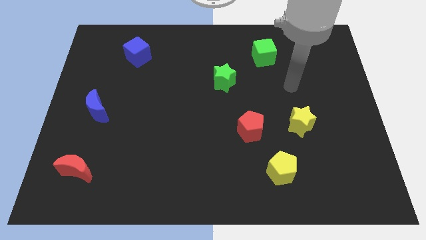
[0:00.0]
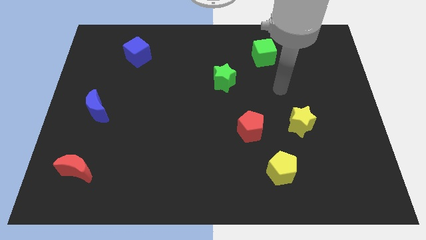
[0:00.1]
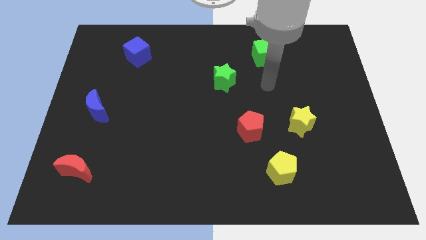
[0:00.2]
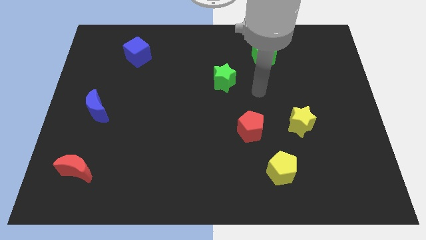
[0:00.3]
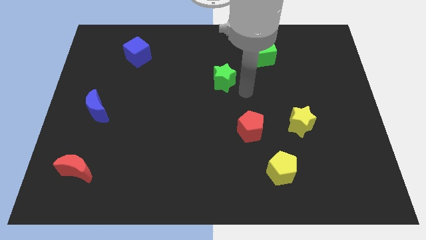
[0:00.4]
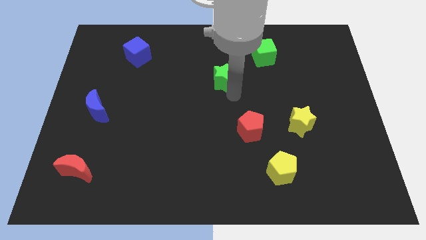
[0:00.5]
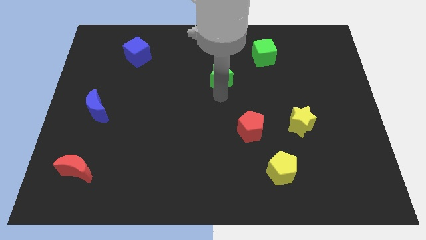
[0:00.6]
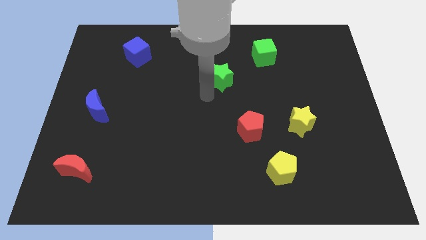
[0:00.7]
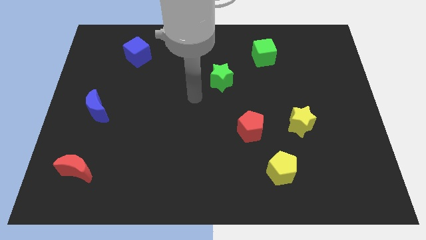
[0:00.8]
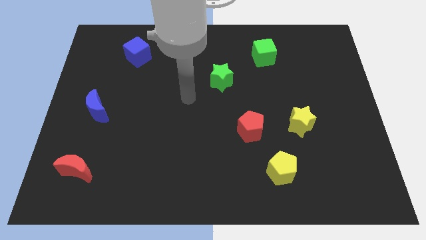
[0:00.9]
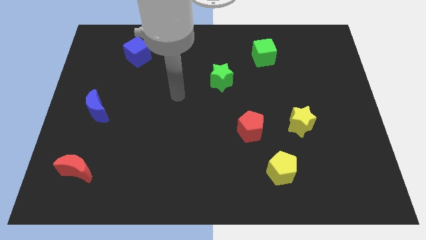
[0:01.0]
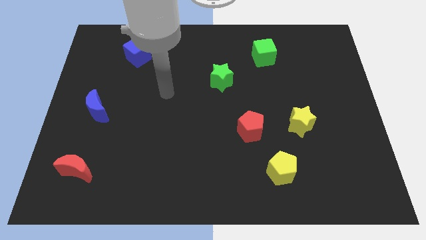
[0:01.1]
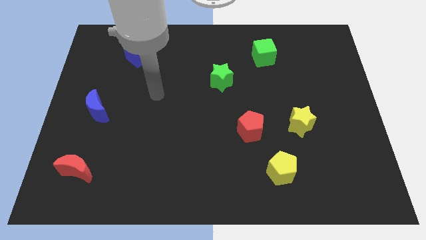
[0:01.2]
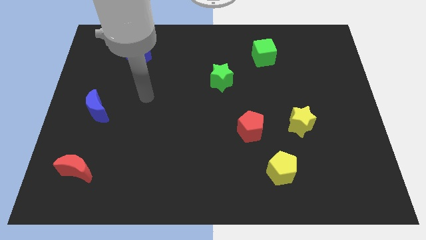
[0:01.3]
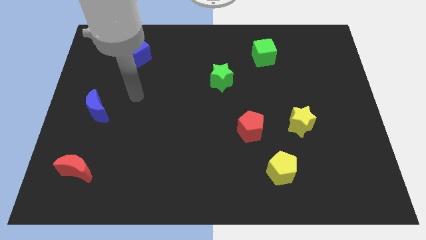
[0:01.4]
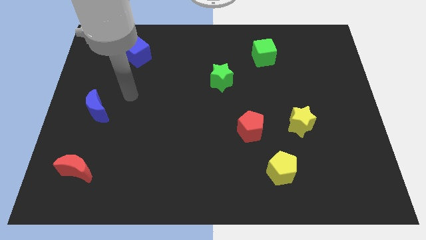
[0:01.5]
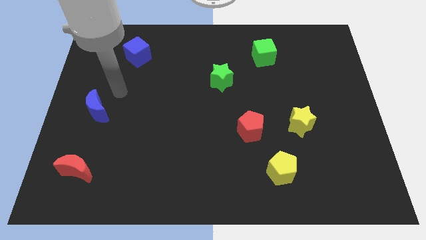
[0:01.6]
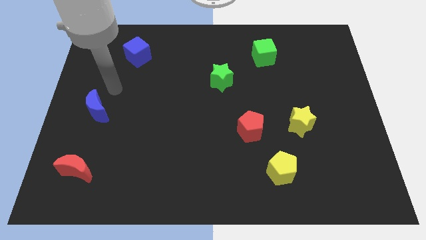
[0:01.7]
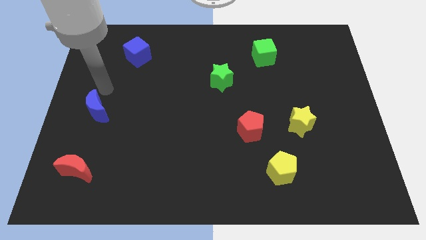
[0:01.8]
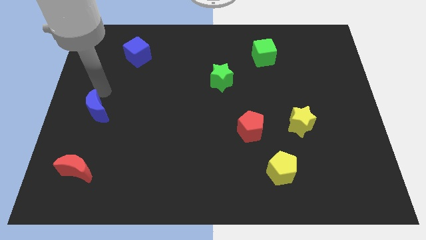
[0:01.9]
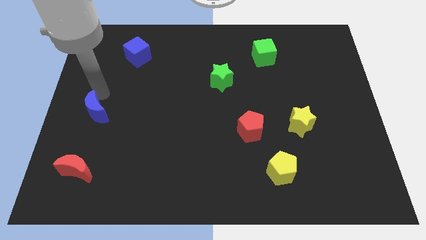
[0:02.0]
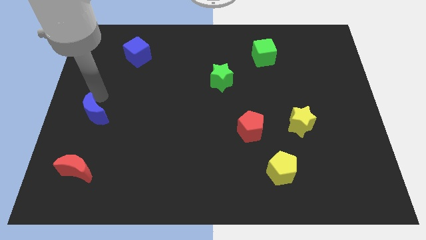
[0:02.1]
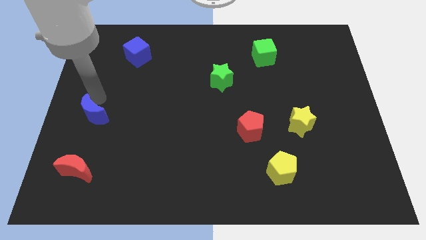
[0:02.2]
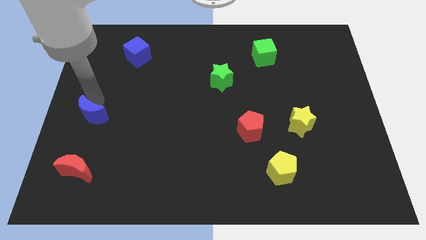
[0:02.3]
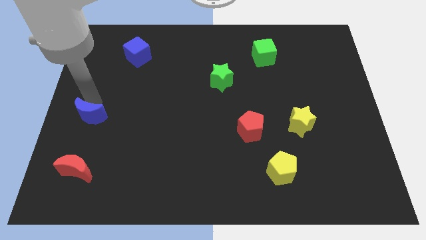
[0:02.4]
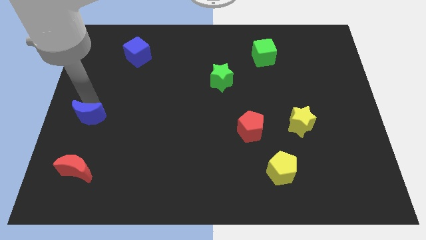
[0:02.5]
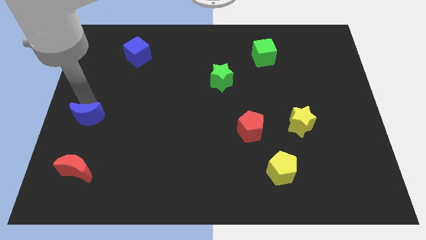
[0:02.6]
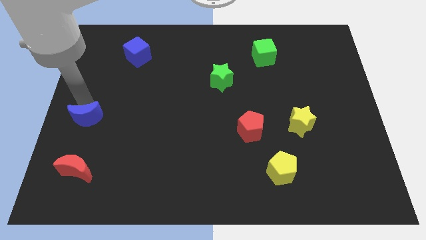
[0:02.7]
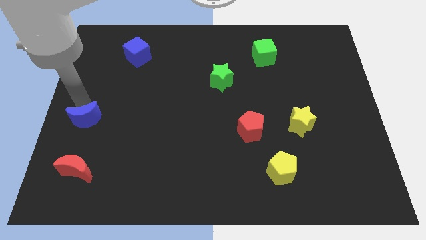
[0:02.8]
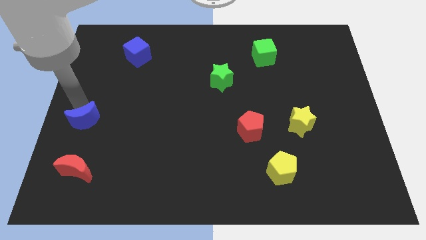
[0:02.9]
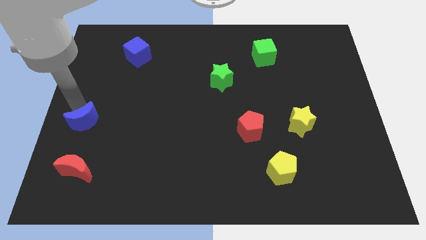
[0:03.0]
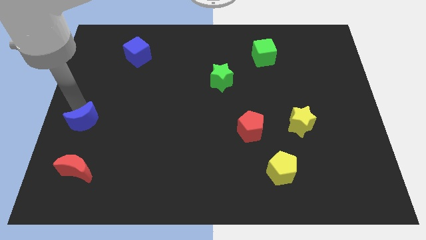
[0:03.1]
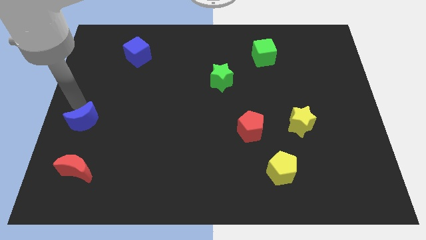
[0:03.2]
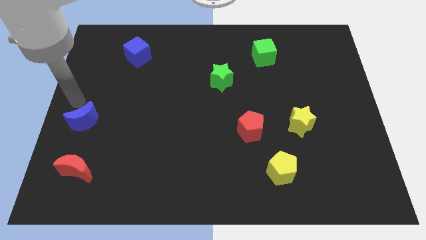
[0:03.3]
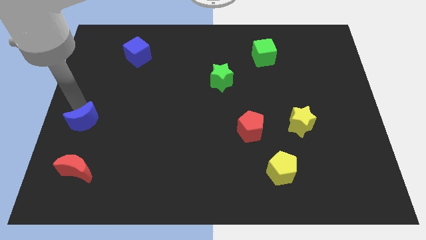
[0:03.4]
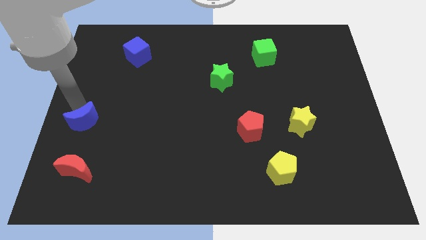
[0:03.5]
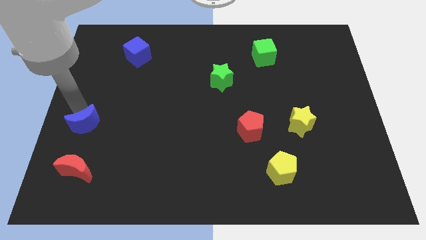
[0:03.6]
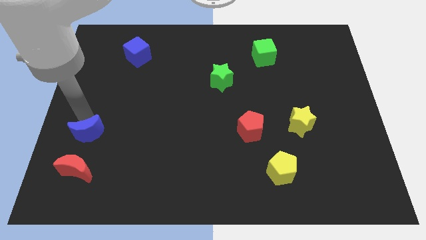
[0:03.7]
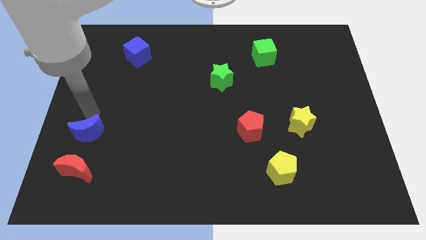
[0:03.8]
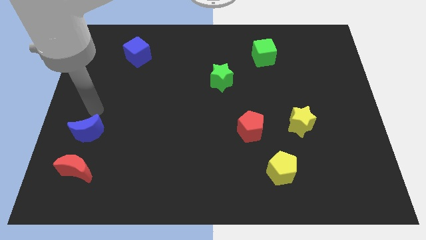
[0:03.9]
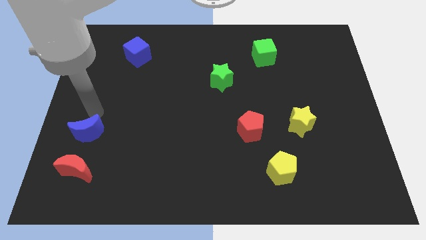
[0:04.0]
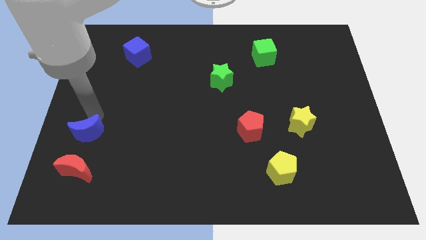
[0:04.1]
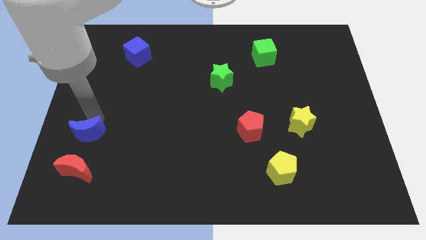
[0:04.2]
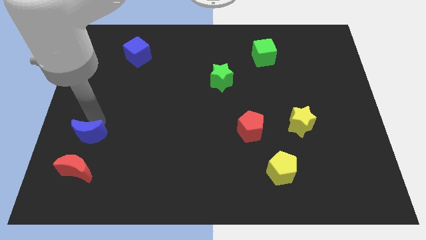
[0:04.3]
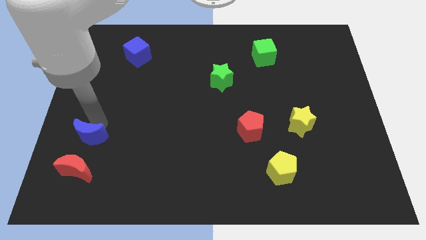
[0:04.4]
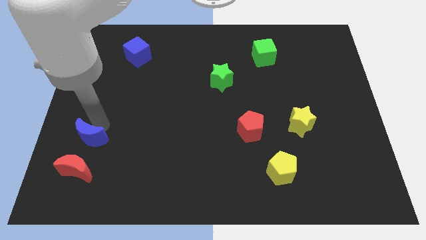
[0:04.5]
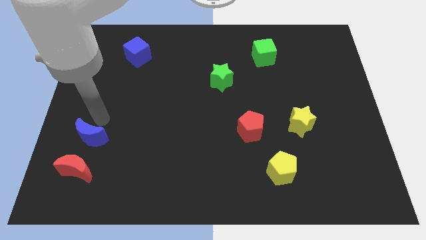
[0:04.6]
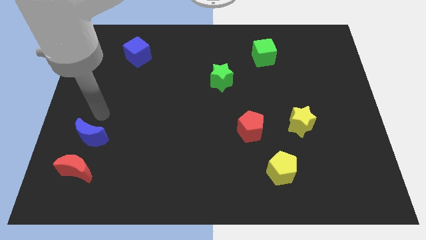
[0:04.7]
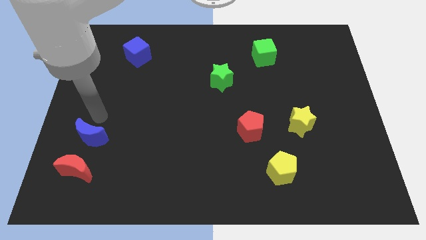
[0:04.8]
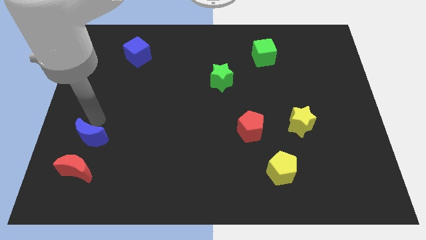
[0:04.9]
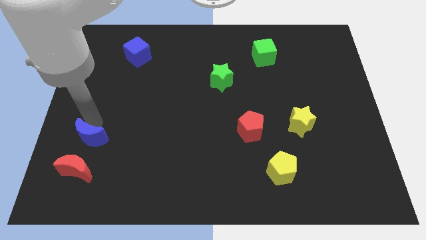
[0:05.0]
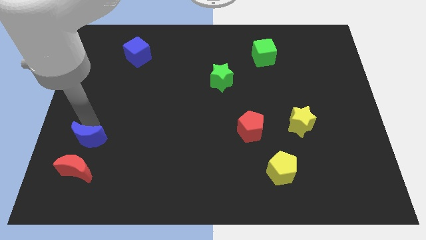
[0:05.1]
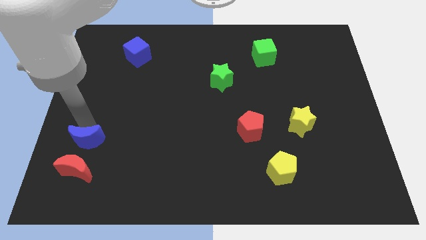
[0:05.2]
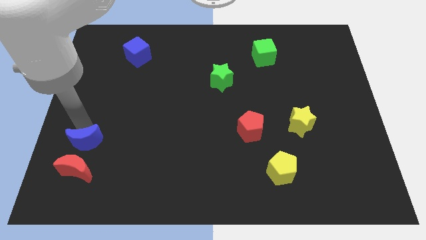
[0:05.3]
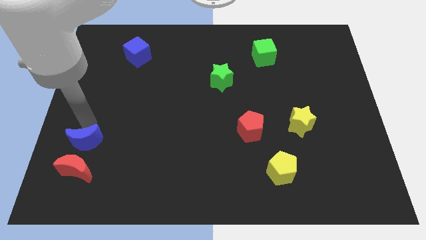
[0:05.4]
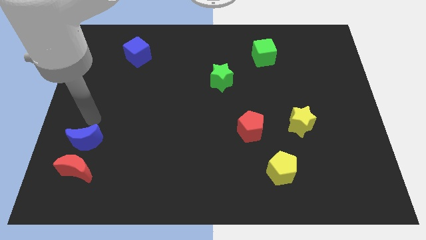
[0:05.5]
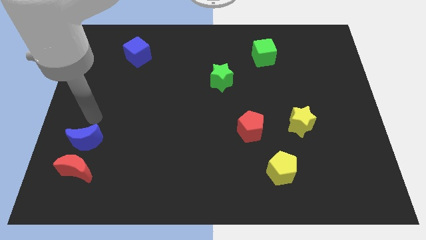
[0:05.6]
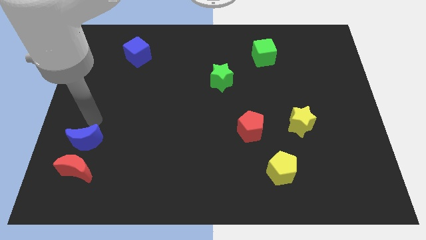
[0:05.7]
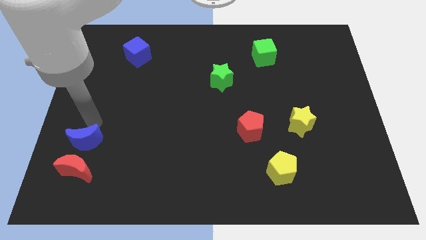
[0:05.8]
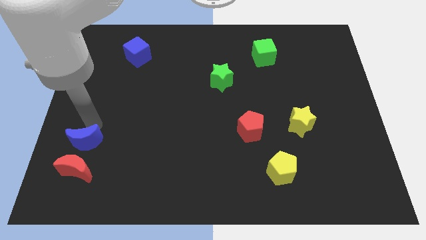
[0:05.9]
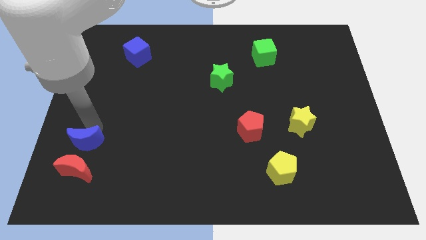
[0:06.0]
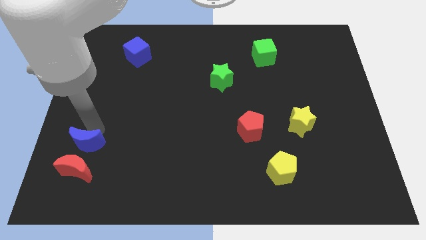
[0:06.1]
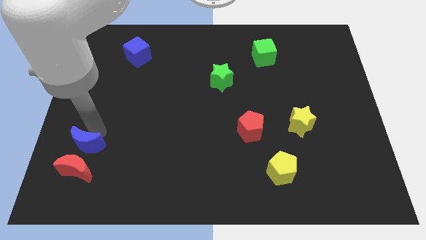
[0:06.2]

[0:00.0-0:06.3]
put the blue moon to the red moon
